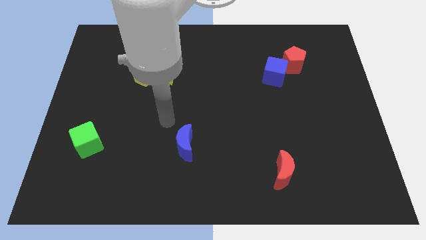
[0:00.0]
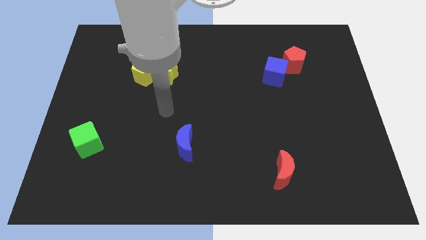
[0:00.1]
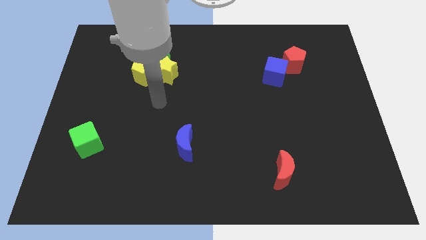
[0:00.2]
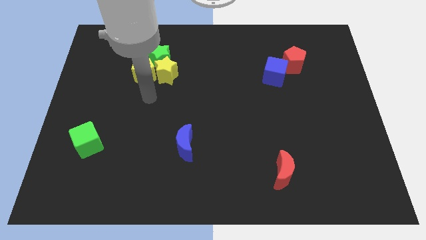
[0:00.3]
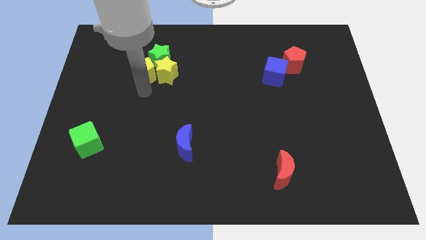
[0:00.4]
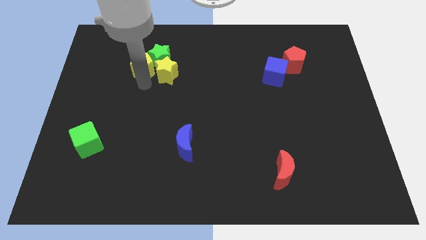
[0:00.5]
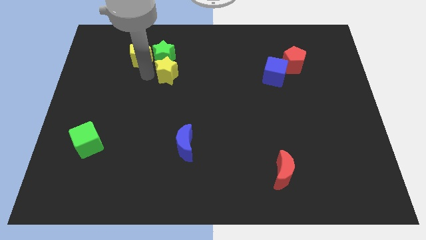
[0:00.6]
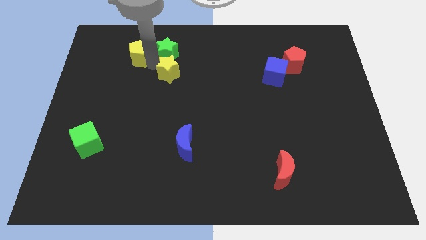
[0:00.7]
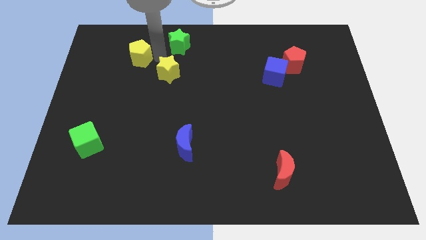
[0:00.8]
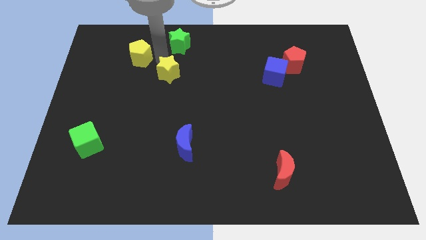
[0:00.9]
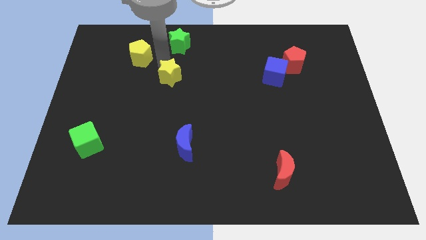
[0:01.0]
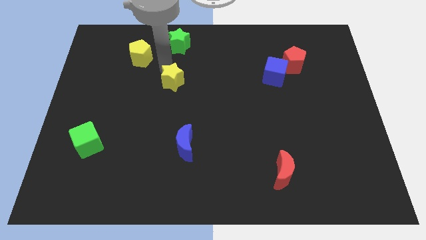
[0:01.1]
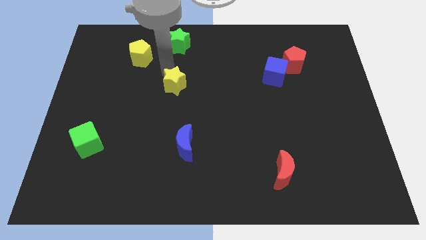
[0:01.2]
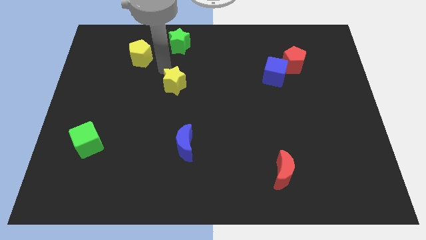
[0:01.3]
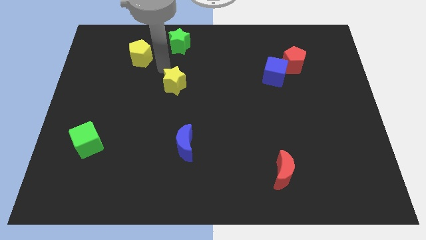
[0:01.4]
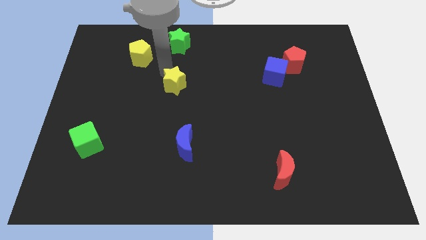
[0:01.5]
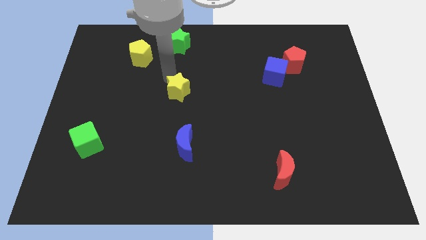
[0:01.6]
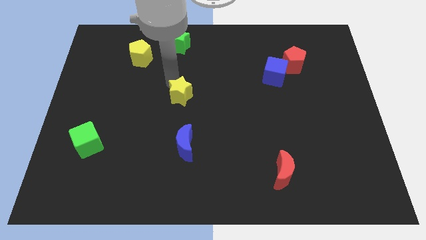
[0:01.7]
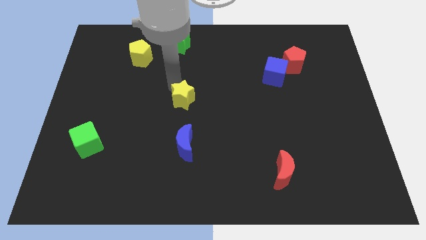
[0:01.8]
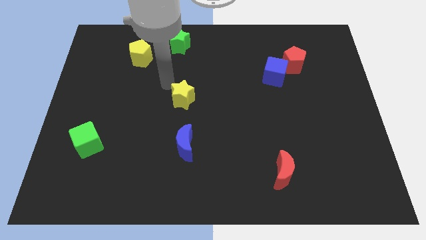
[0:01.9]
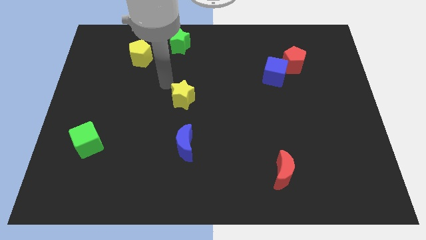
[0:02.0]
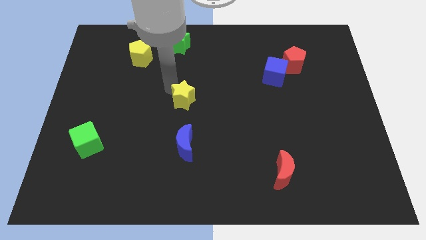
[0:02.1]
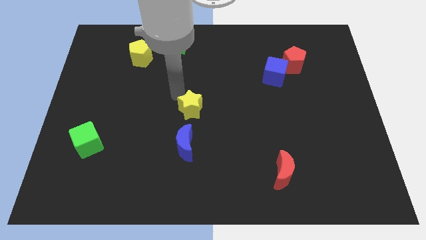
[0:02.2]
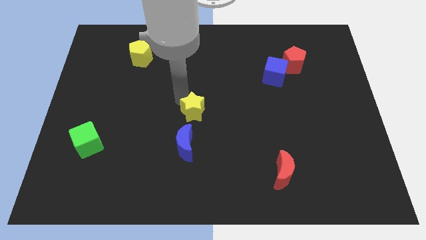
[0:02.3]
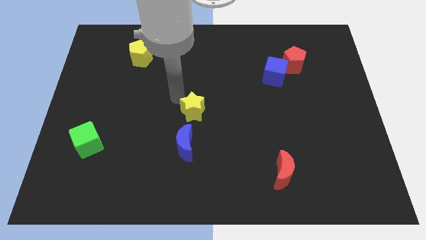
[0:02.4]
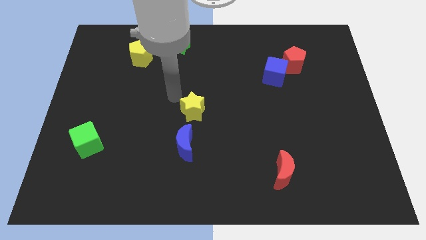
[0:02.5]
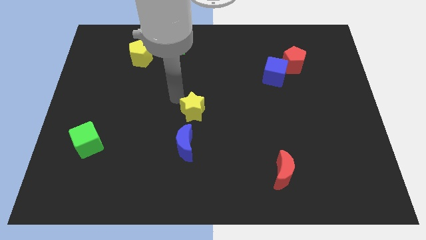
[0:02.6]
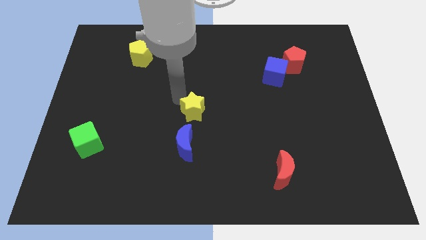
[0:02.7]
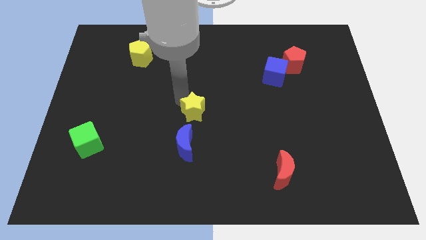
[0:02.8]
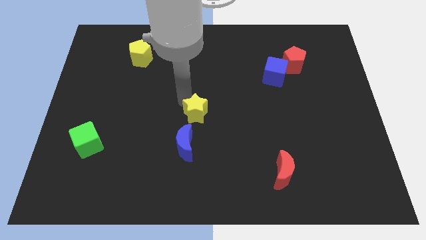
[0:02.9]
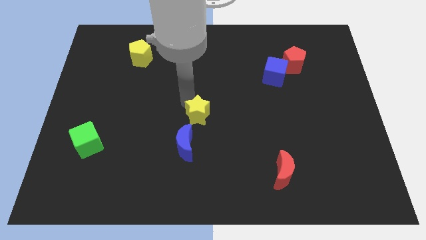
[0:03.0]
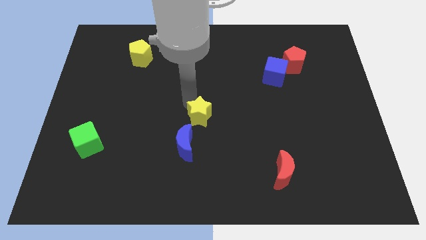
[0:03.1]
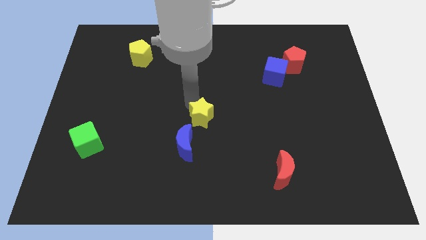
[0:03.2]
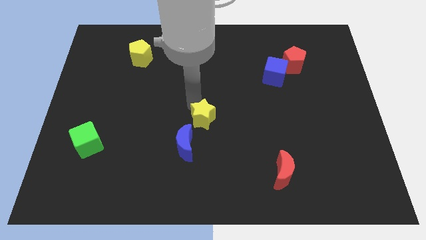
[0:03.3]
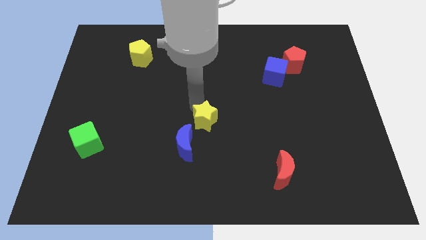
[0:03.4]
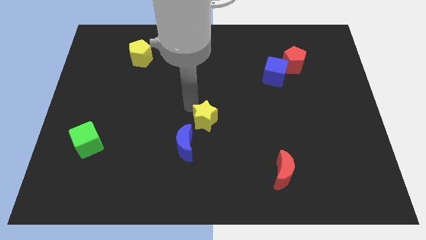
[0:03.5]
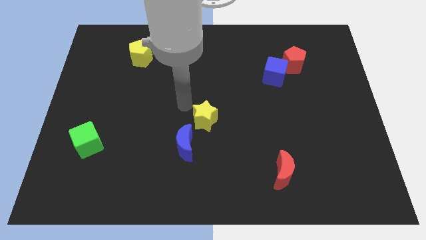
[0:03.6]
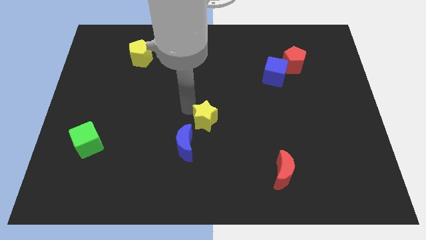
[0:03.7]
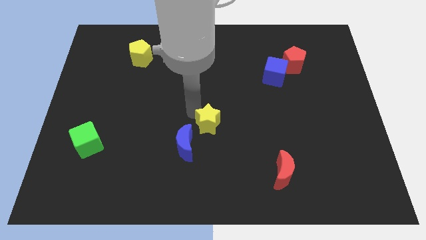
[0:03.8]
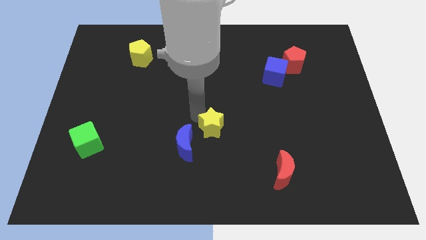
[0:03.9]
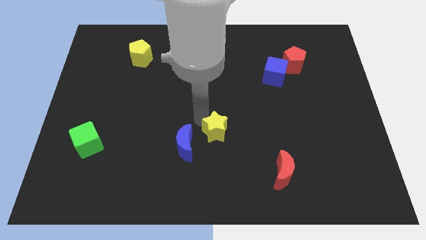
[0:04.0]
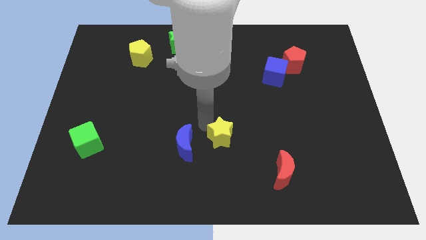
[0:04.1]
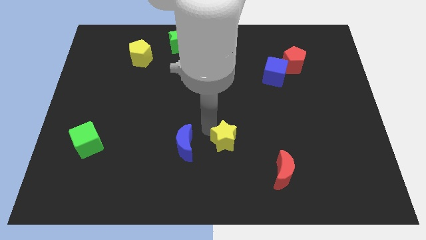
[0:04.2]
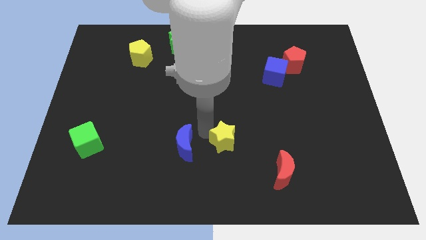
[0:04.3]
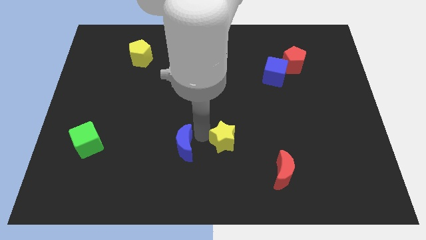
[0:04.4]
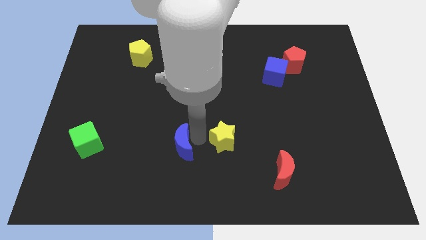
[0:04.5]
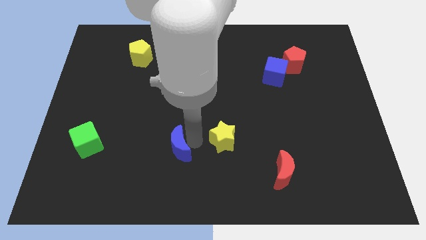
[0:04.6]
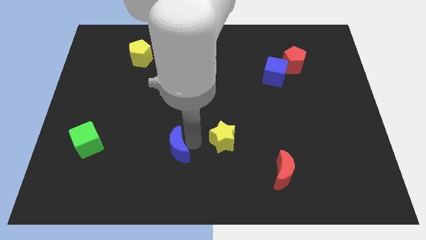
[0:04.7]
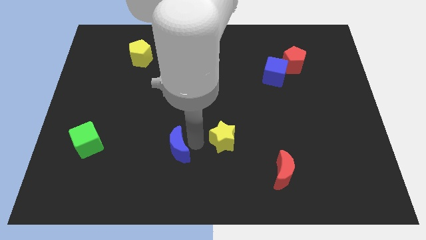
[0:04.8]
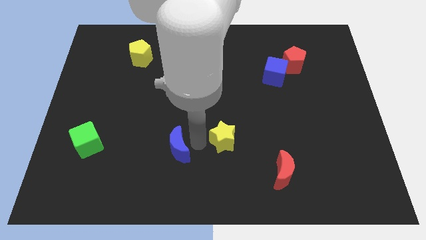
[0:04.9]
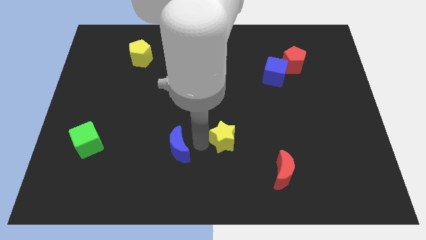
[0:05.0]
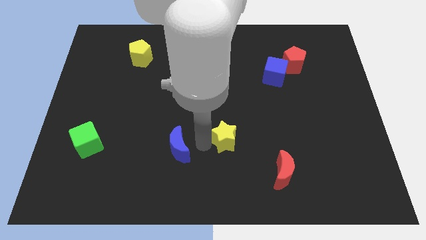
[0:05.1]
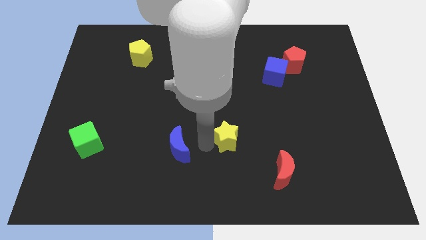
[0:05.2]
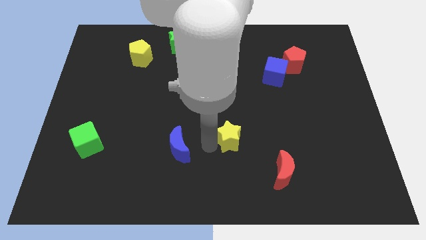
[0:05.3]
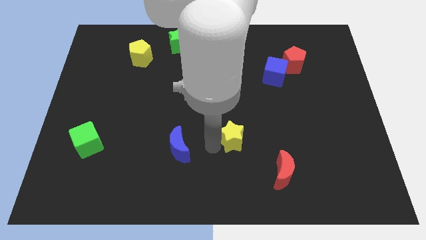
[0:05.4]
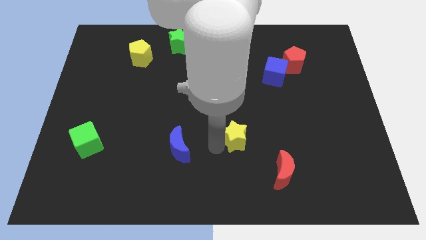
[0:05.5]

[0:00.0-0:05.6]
slide the yellow star to the top left side of the red moon

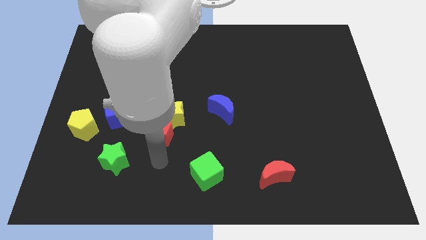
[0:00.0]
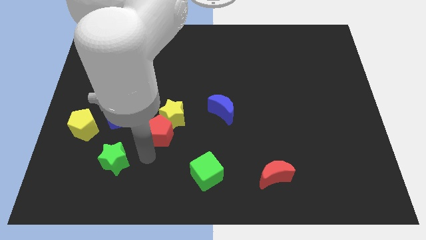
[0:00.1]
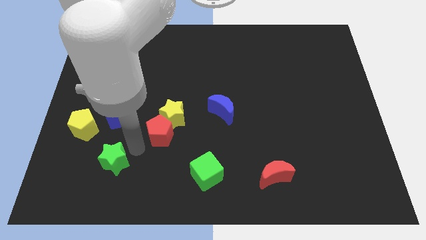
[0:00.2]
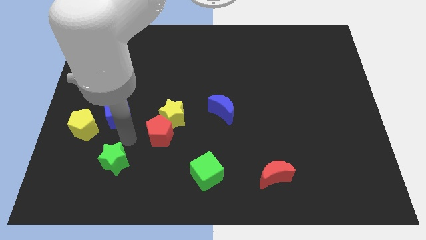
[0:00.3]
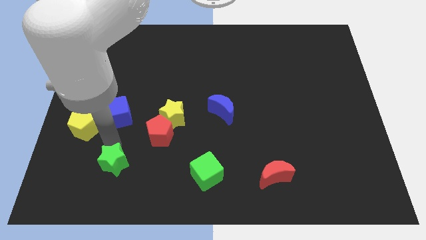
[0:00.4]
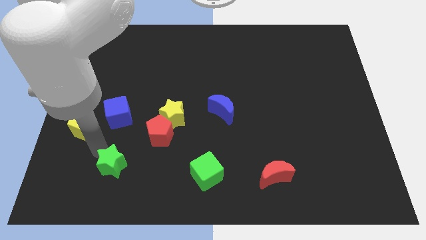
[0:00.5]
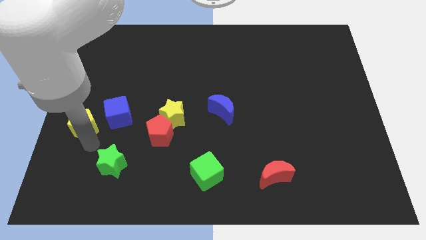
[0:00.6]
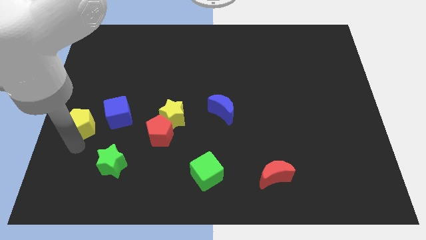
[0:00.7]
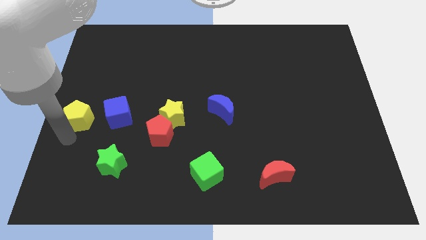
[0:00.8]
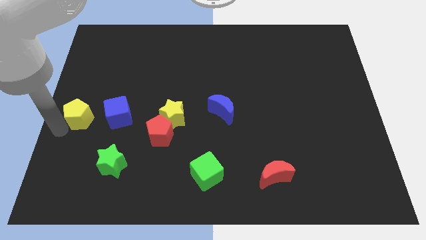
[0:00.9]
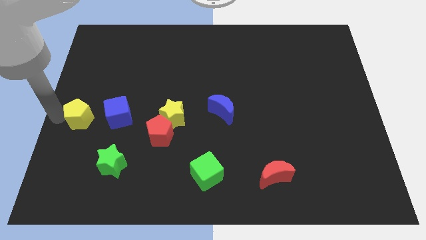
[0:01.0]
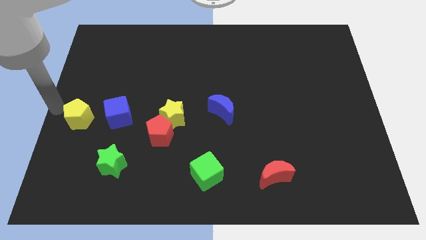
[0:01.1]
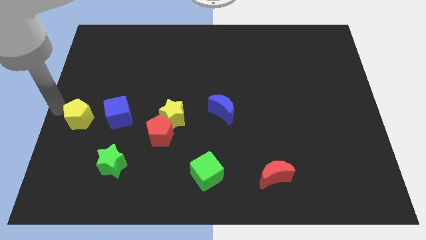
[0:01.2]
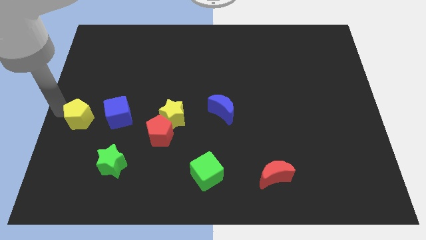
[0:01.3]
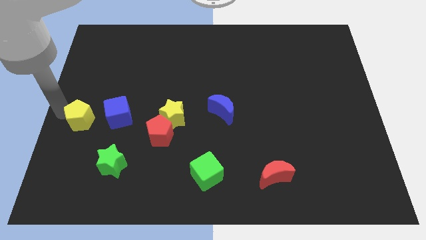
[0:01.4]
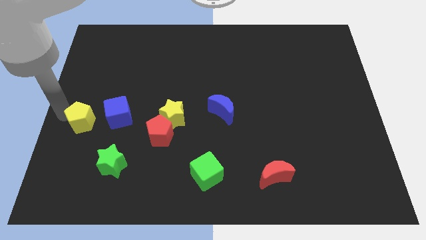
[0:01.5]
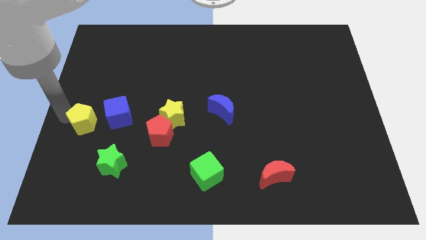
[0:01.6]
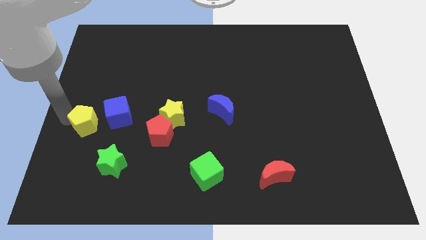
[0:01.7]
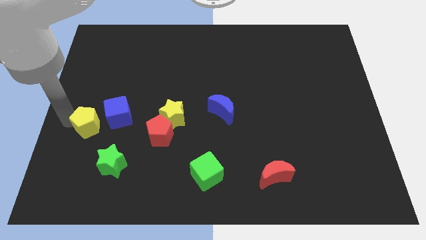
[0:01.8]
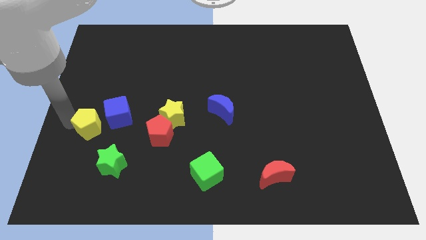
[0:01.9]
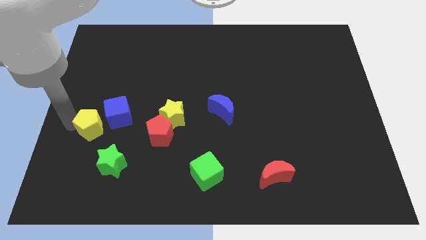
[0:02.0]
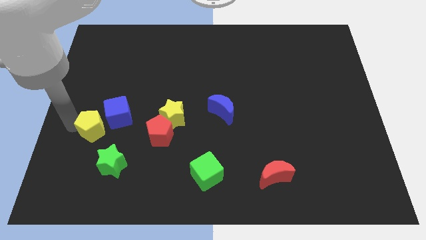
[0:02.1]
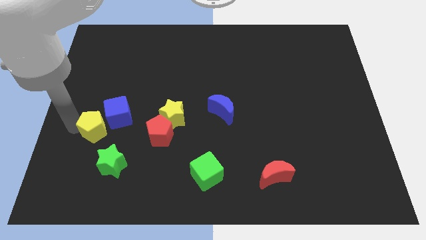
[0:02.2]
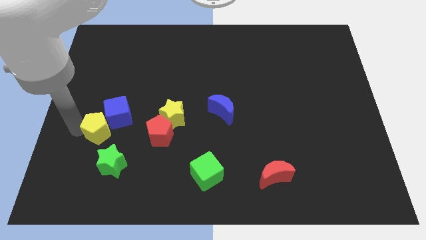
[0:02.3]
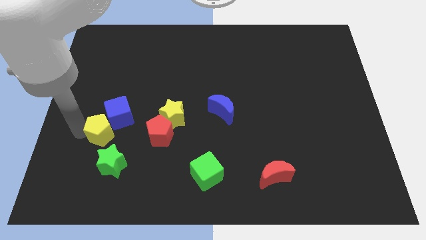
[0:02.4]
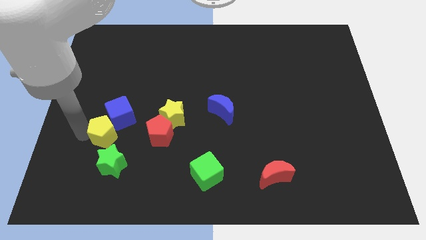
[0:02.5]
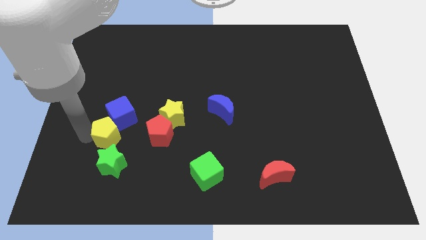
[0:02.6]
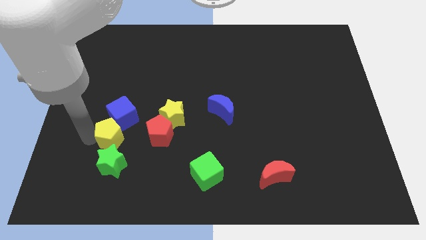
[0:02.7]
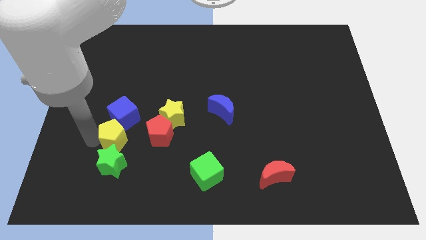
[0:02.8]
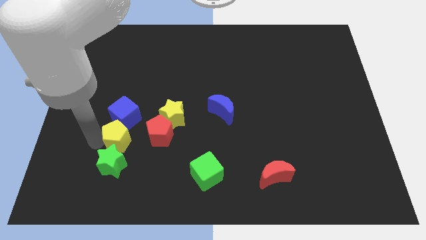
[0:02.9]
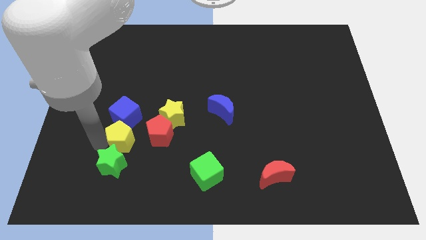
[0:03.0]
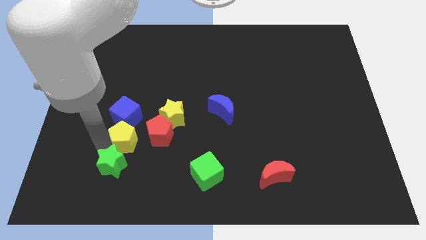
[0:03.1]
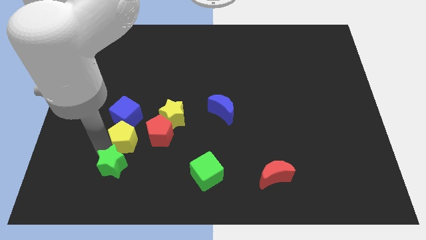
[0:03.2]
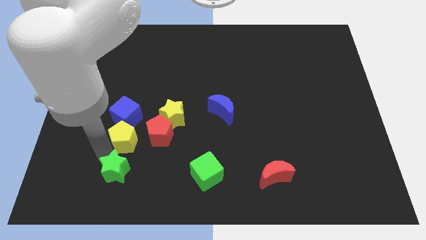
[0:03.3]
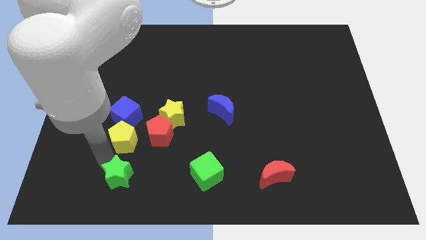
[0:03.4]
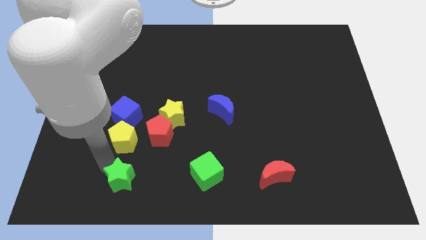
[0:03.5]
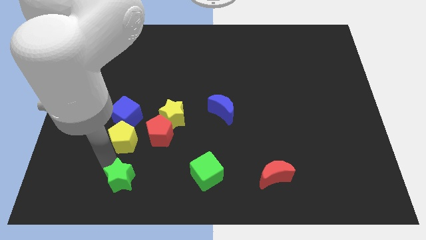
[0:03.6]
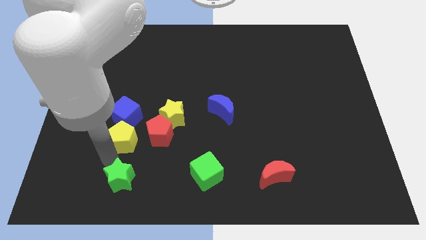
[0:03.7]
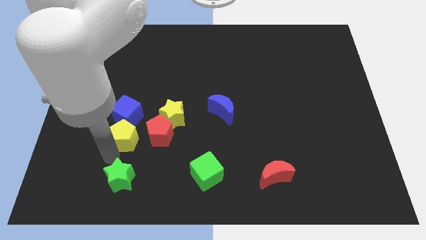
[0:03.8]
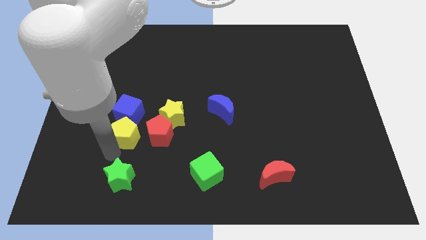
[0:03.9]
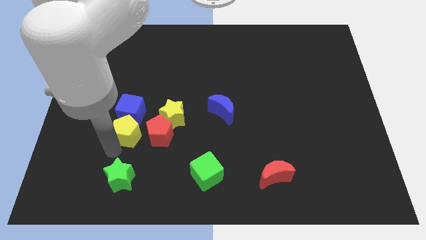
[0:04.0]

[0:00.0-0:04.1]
put the yellow pentagon diagonally up and to the left of the red pentagon
